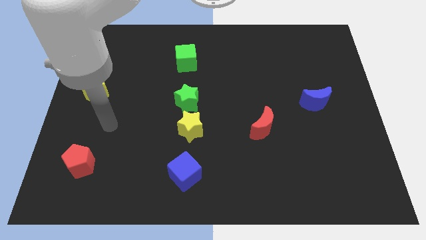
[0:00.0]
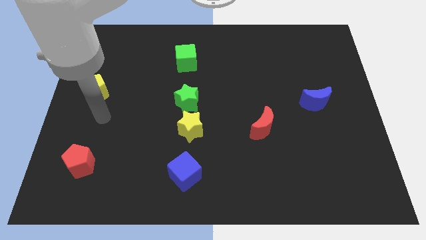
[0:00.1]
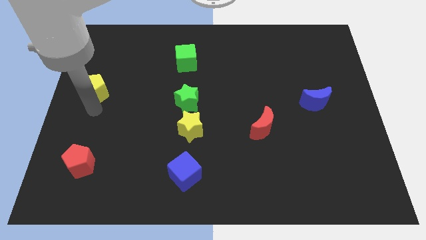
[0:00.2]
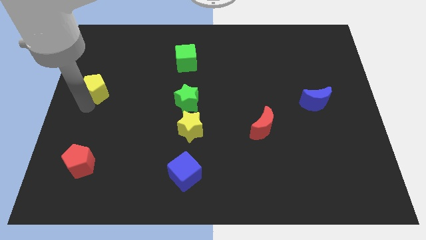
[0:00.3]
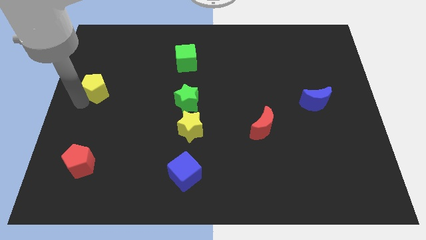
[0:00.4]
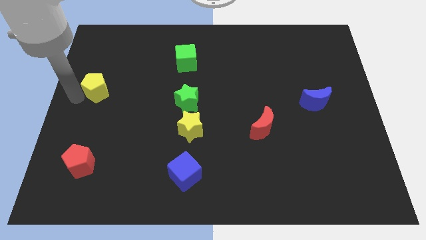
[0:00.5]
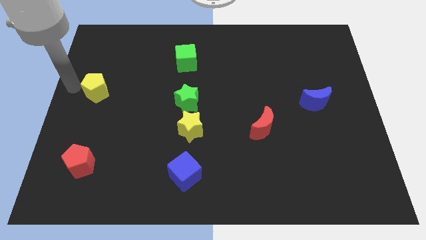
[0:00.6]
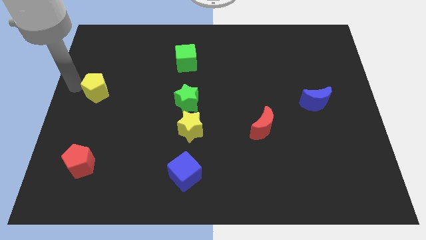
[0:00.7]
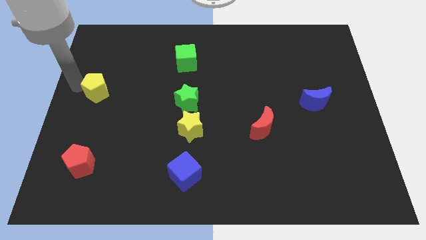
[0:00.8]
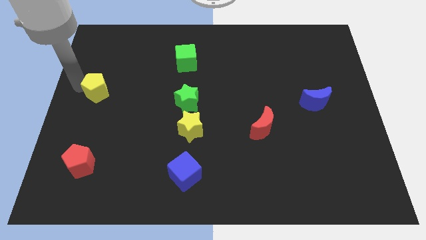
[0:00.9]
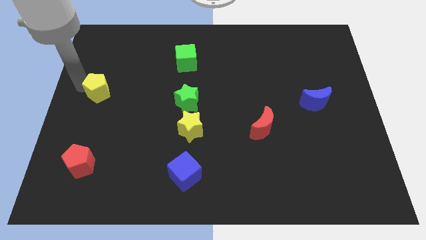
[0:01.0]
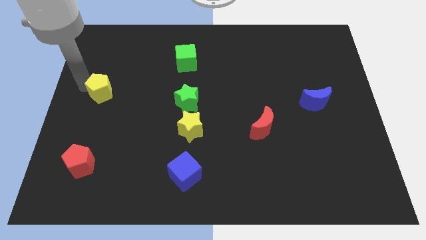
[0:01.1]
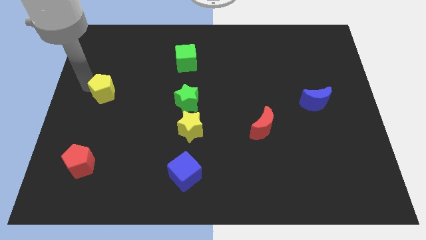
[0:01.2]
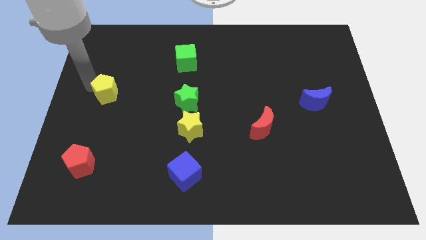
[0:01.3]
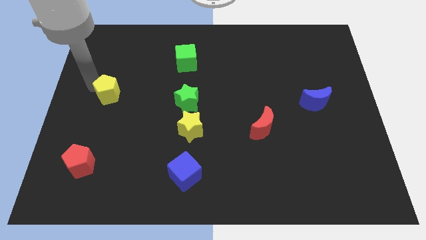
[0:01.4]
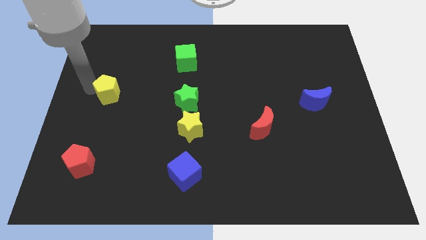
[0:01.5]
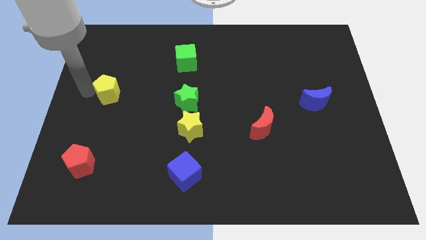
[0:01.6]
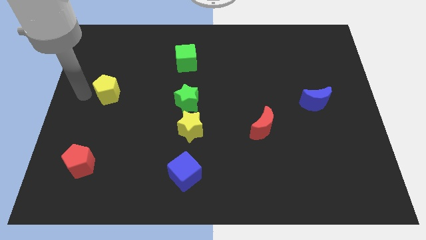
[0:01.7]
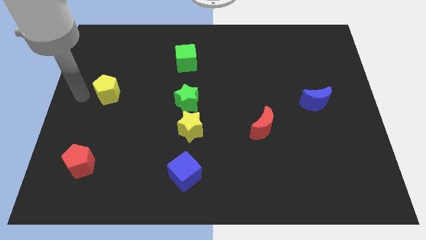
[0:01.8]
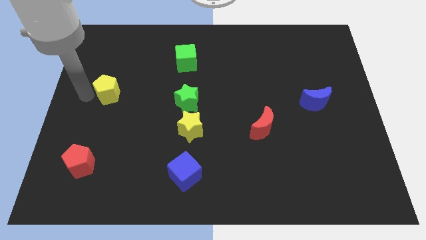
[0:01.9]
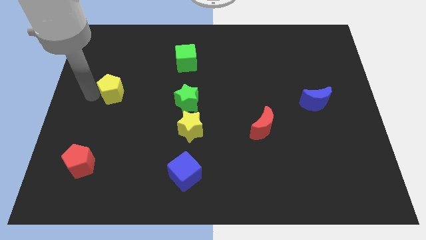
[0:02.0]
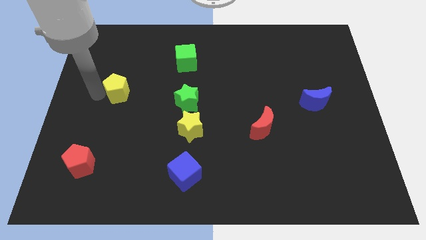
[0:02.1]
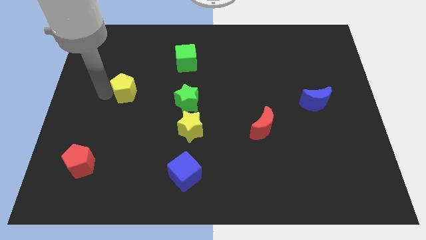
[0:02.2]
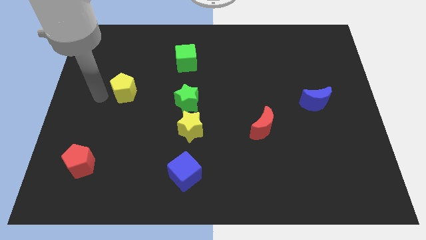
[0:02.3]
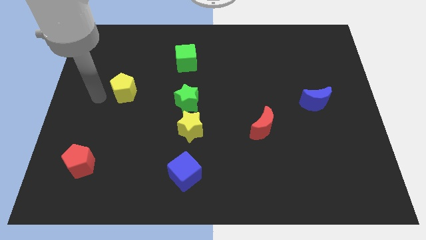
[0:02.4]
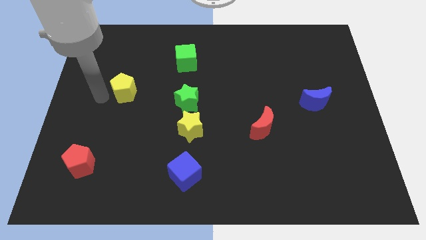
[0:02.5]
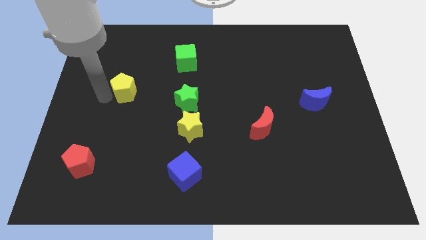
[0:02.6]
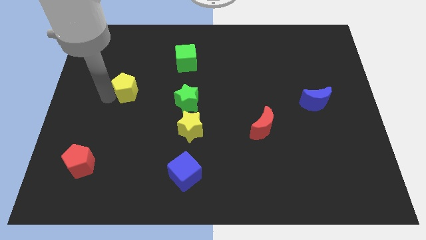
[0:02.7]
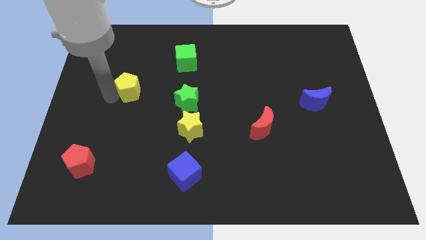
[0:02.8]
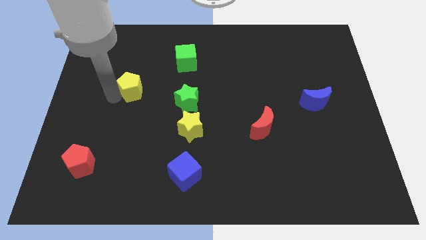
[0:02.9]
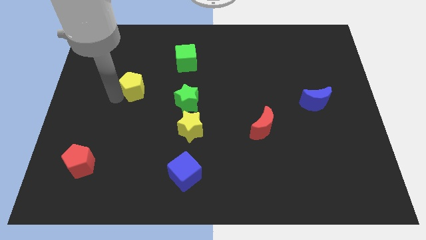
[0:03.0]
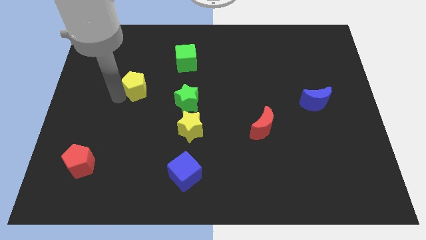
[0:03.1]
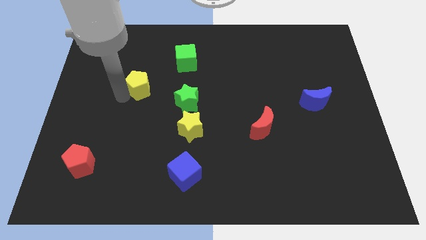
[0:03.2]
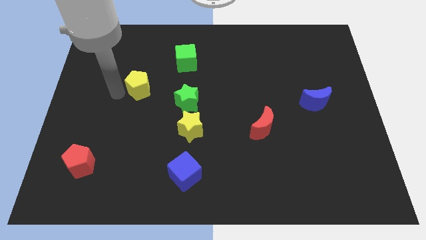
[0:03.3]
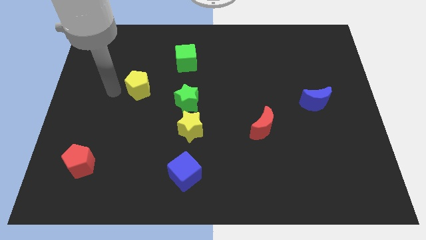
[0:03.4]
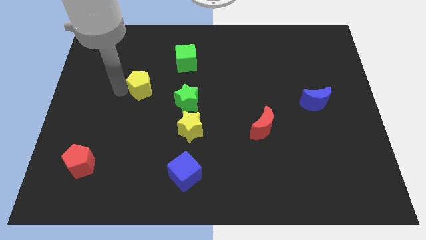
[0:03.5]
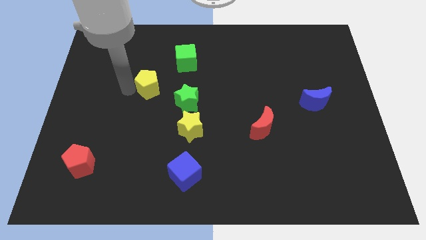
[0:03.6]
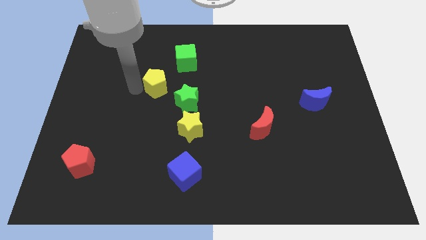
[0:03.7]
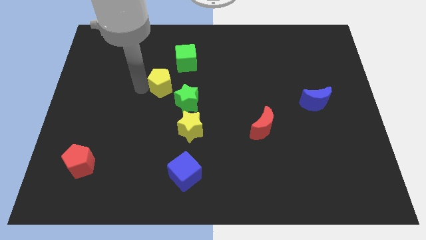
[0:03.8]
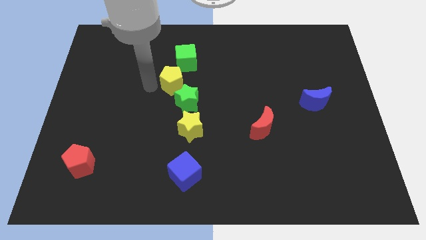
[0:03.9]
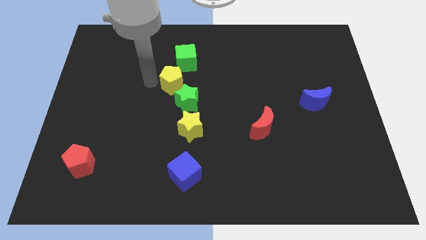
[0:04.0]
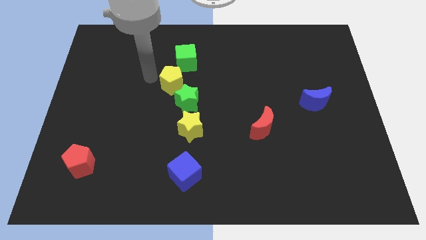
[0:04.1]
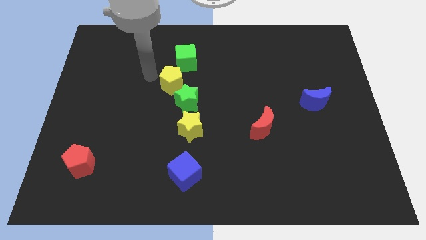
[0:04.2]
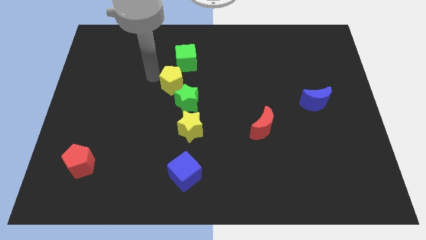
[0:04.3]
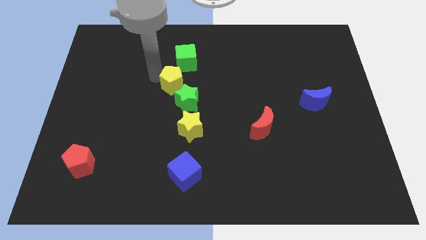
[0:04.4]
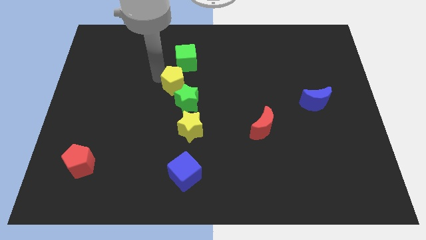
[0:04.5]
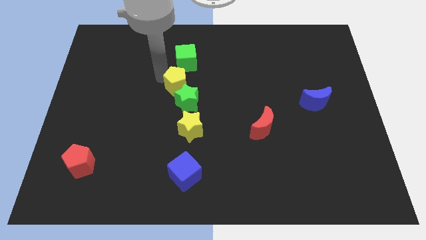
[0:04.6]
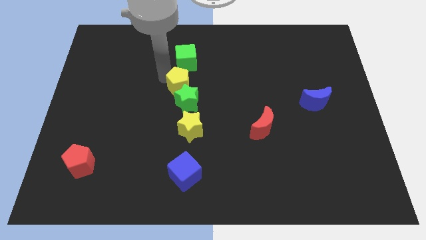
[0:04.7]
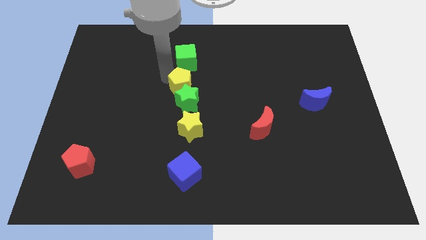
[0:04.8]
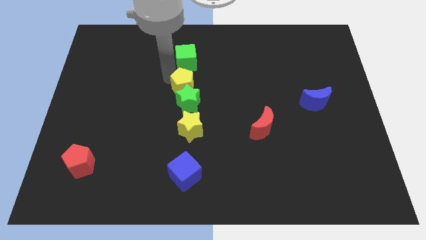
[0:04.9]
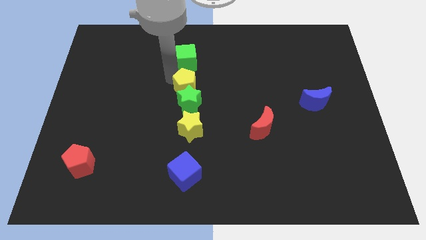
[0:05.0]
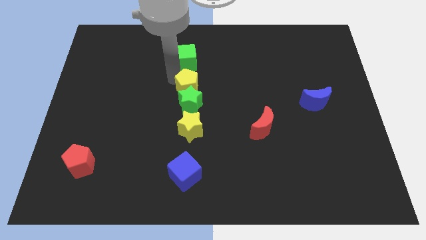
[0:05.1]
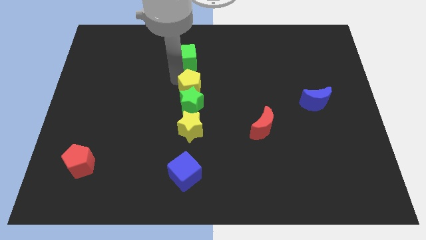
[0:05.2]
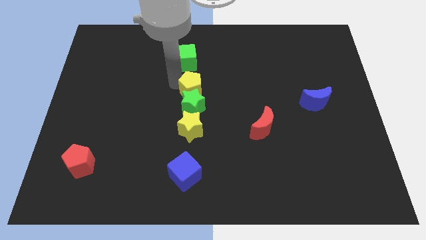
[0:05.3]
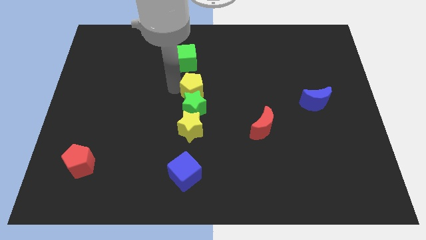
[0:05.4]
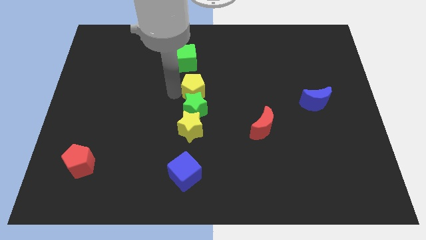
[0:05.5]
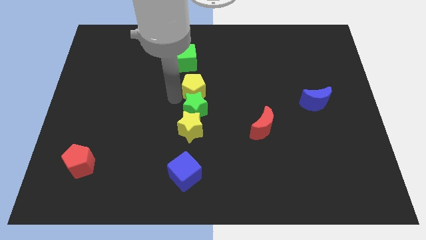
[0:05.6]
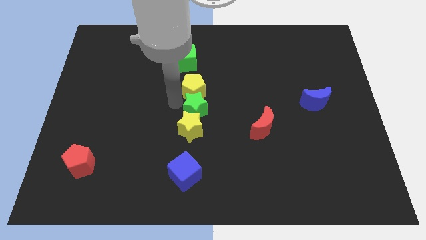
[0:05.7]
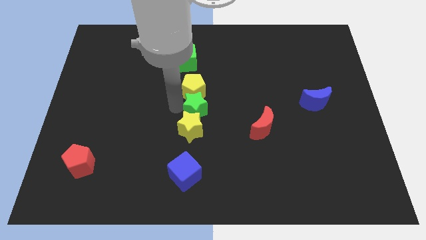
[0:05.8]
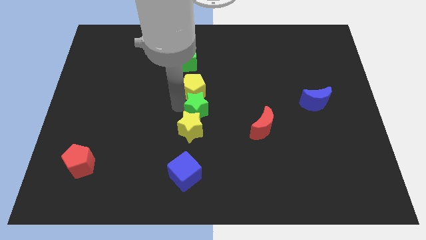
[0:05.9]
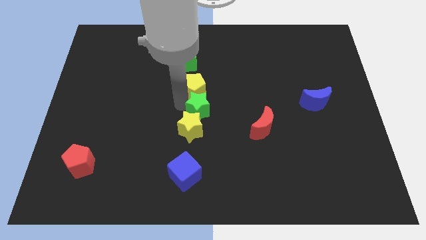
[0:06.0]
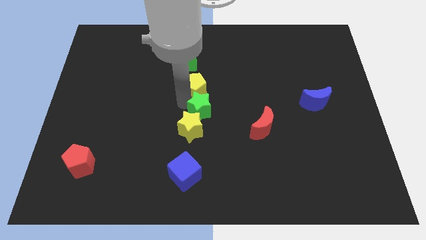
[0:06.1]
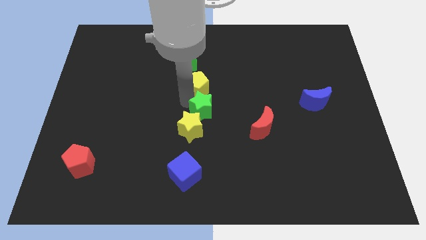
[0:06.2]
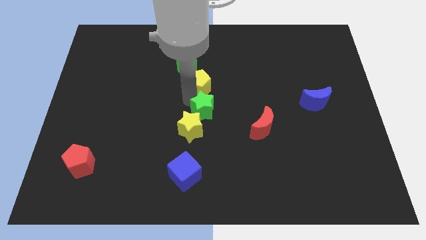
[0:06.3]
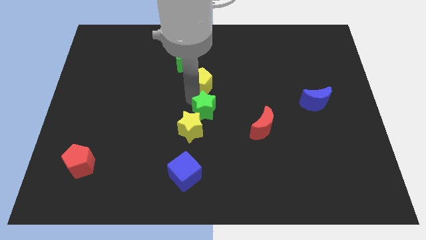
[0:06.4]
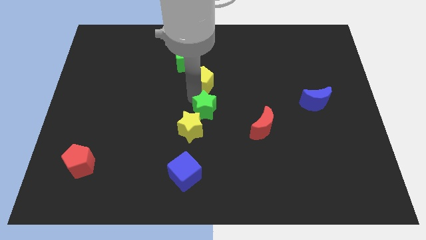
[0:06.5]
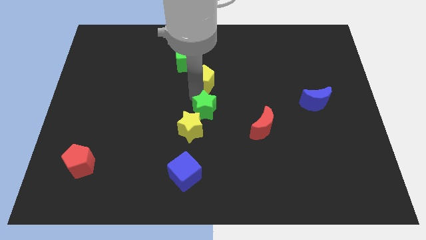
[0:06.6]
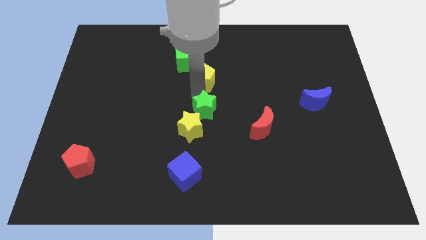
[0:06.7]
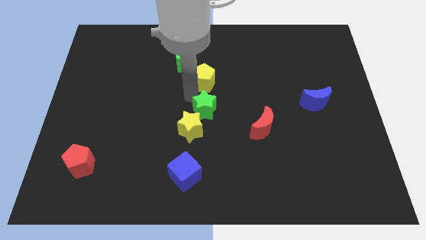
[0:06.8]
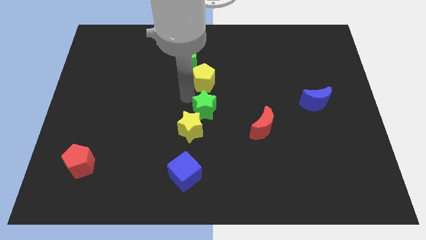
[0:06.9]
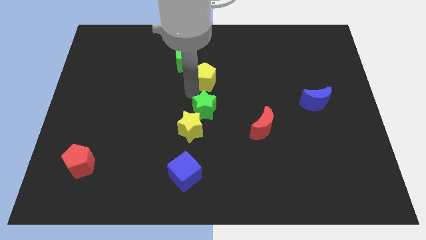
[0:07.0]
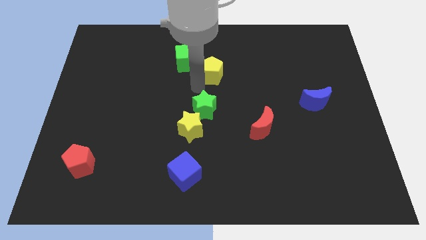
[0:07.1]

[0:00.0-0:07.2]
move the yellow pentagon right of the green cube

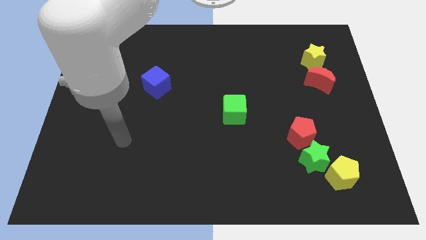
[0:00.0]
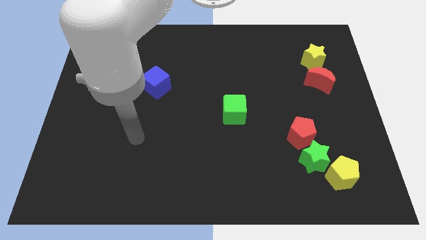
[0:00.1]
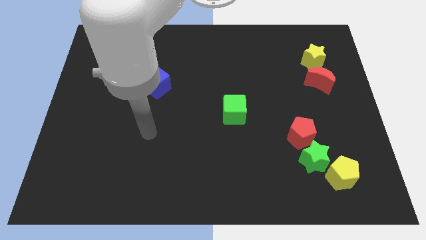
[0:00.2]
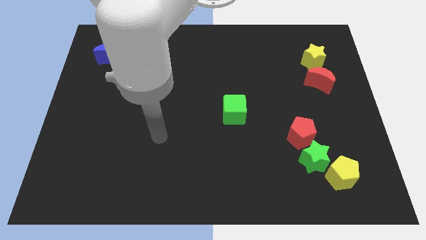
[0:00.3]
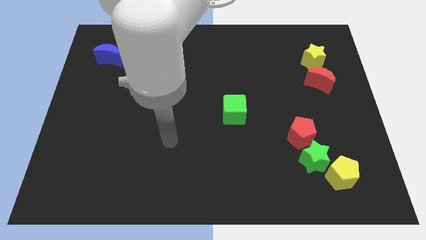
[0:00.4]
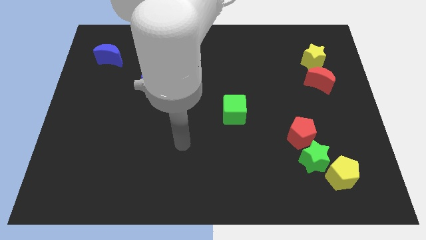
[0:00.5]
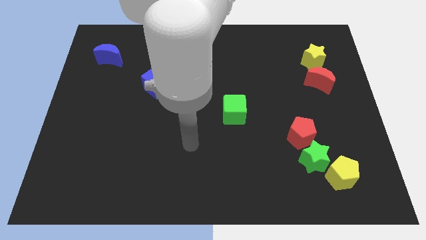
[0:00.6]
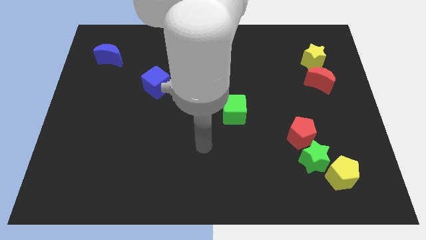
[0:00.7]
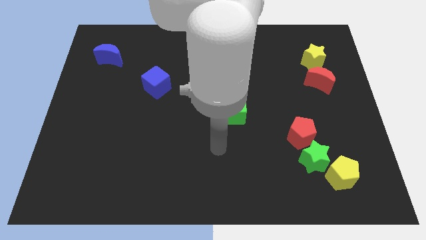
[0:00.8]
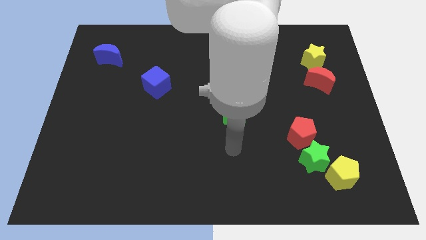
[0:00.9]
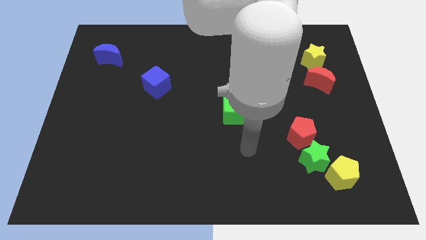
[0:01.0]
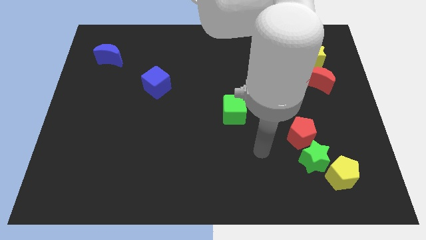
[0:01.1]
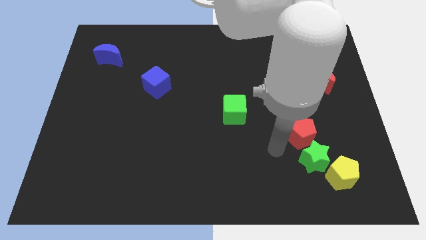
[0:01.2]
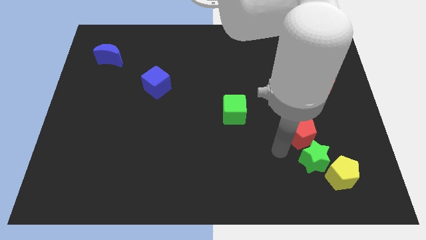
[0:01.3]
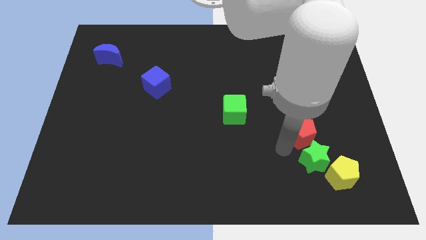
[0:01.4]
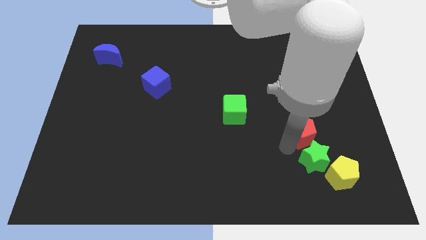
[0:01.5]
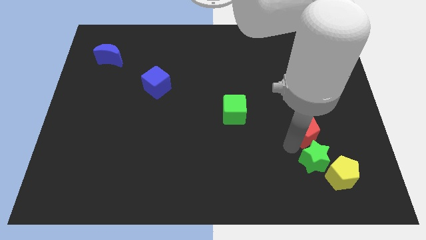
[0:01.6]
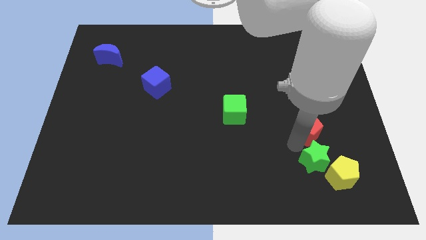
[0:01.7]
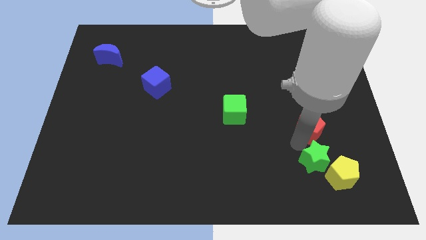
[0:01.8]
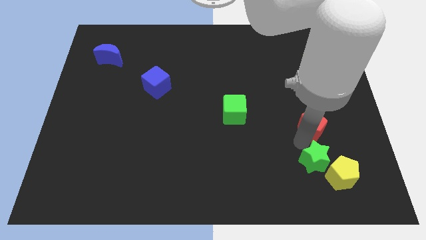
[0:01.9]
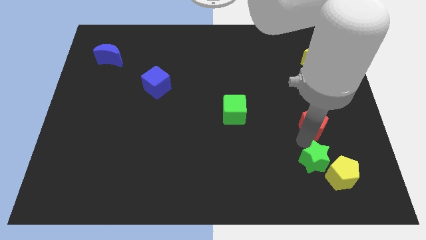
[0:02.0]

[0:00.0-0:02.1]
put the red pentagon to the bottom of the red moon
